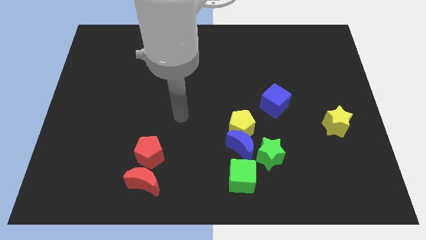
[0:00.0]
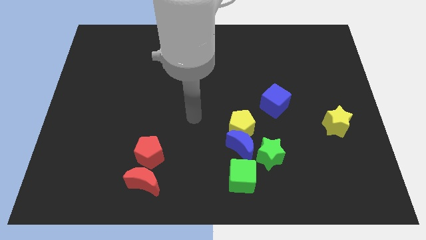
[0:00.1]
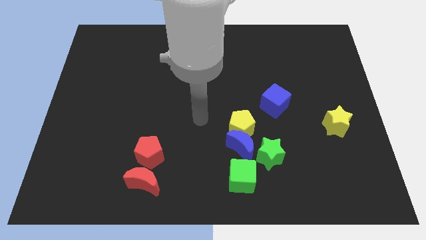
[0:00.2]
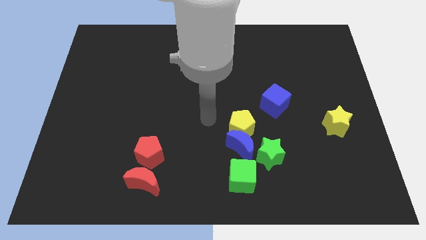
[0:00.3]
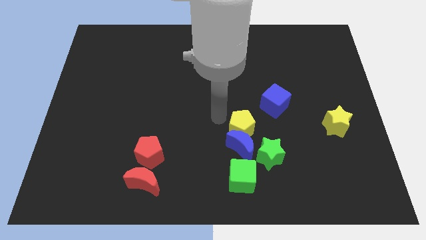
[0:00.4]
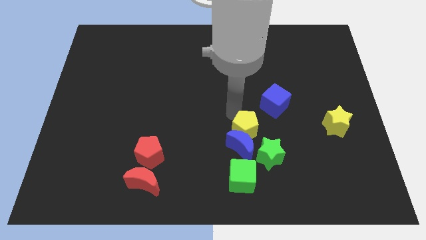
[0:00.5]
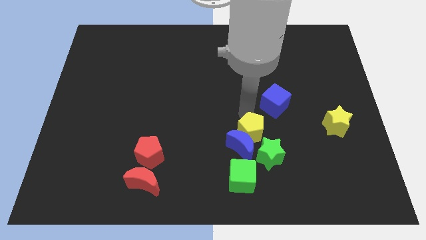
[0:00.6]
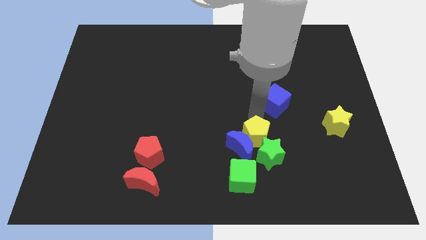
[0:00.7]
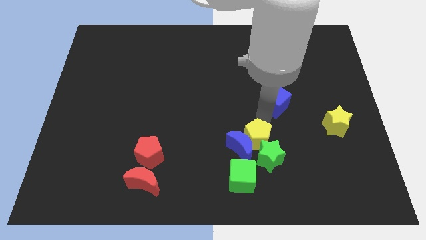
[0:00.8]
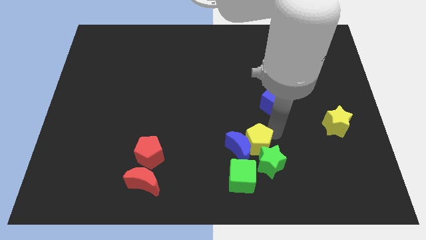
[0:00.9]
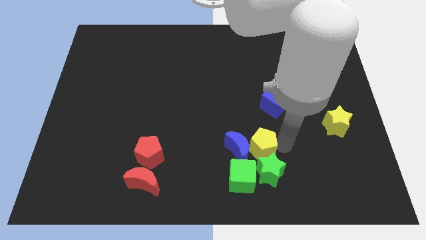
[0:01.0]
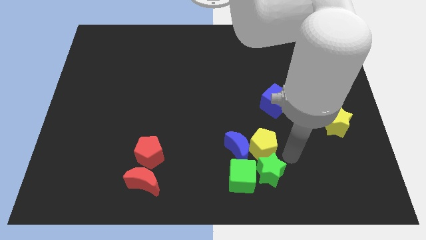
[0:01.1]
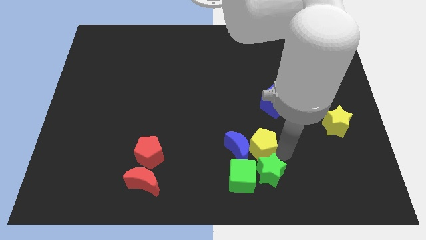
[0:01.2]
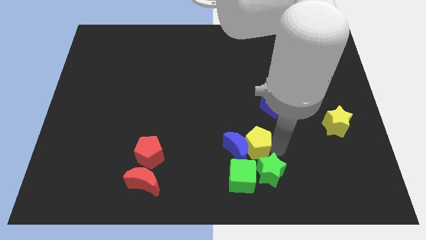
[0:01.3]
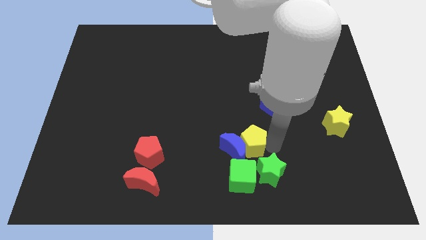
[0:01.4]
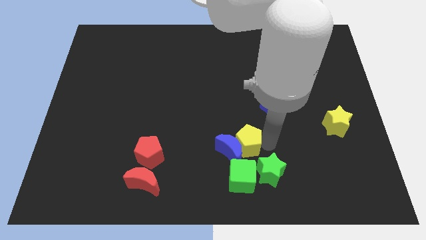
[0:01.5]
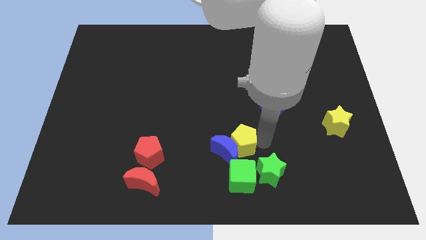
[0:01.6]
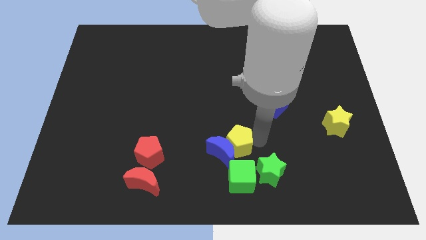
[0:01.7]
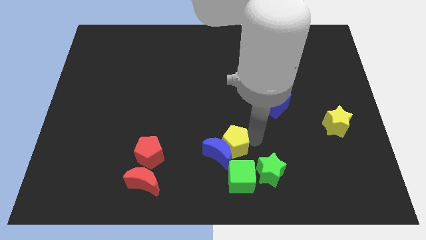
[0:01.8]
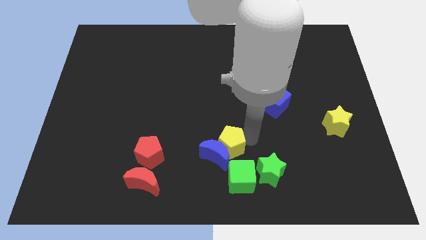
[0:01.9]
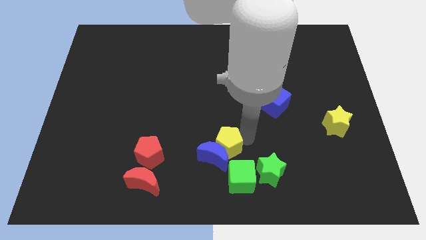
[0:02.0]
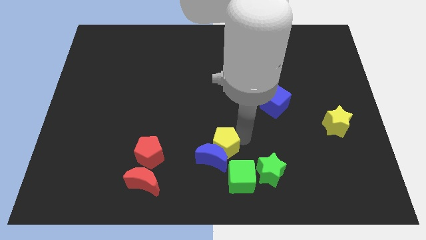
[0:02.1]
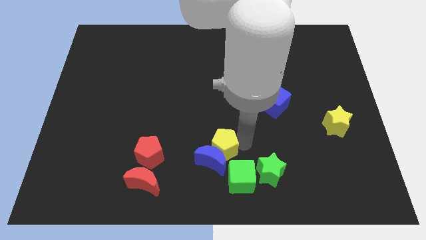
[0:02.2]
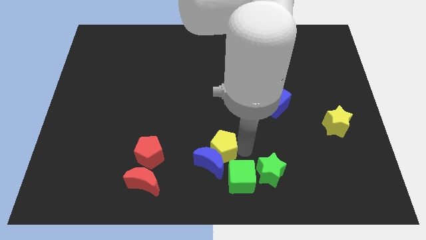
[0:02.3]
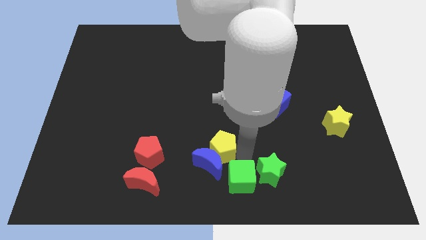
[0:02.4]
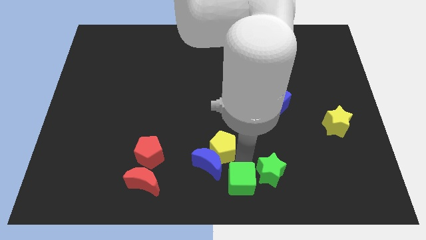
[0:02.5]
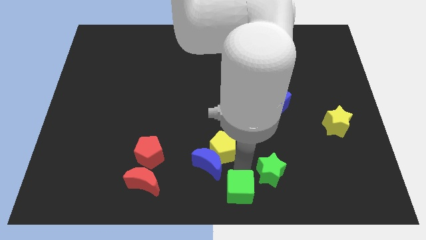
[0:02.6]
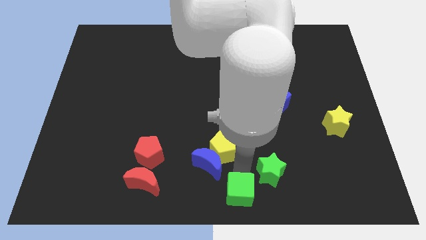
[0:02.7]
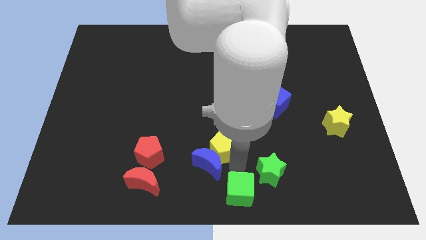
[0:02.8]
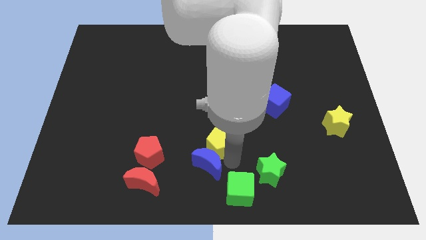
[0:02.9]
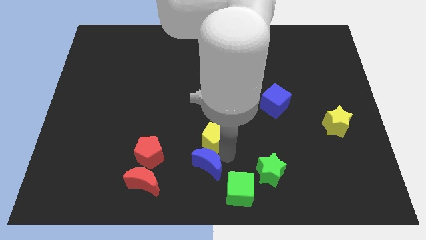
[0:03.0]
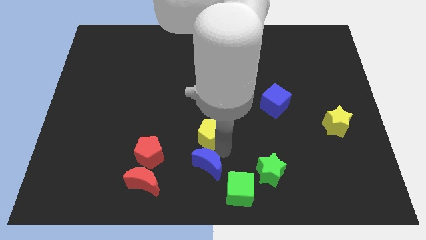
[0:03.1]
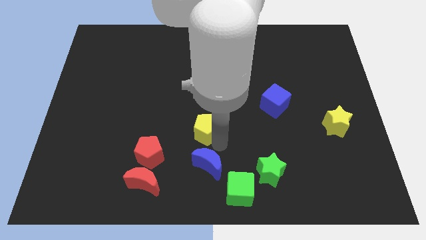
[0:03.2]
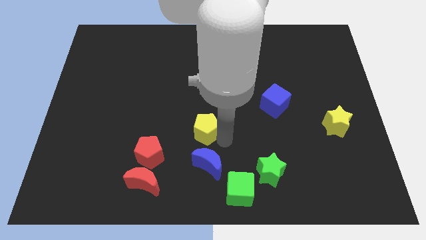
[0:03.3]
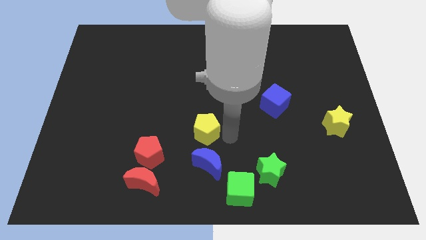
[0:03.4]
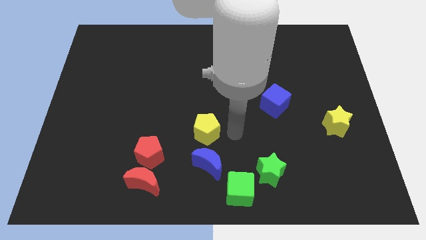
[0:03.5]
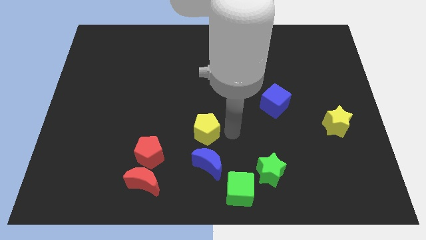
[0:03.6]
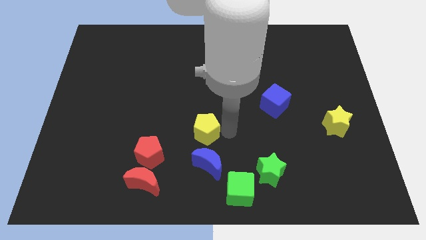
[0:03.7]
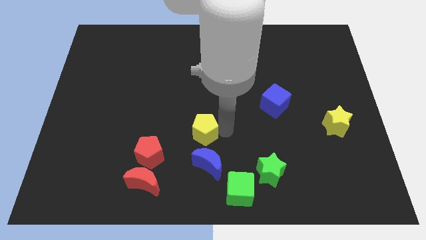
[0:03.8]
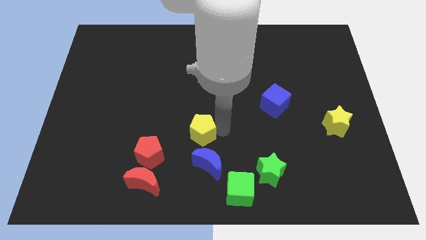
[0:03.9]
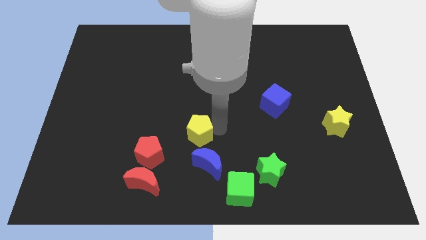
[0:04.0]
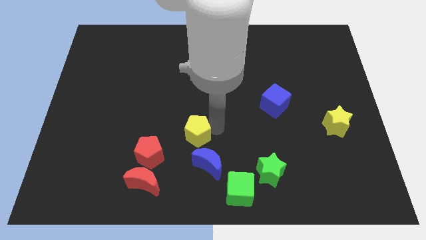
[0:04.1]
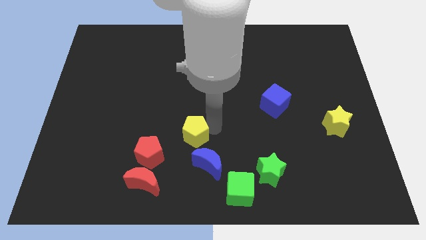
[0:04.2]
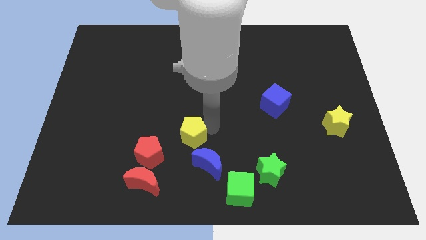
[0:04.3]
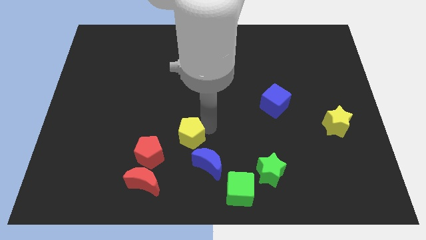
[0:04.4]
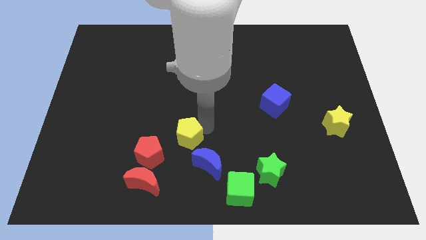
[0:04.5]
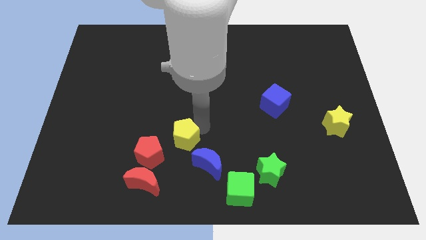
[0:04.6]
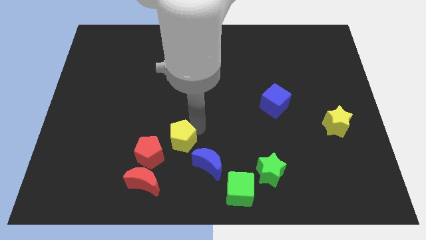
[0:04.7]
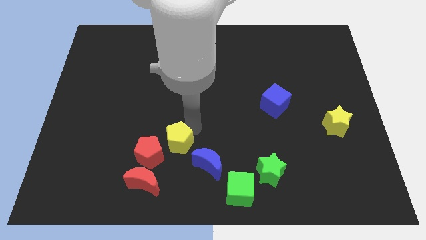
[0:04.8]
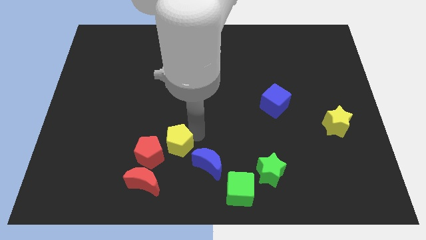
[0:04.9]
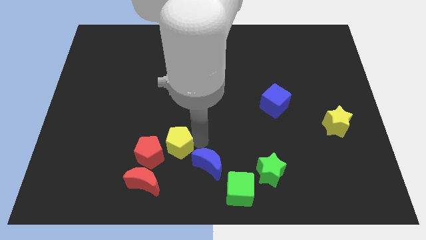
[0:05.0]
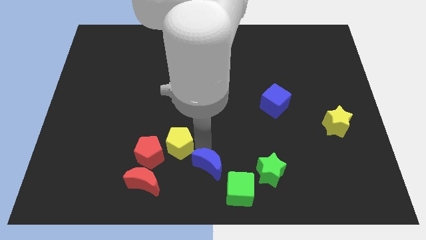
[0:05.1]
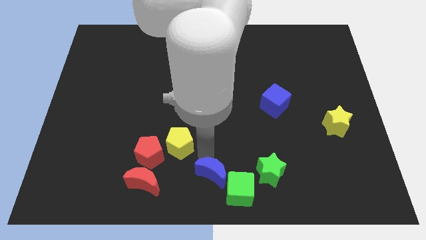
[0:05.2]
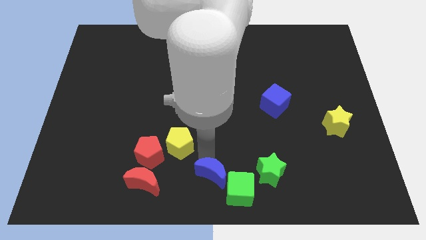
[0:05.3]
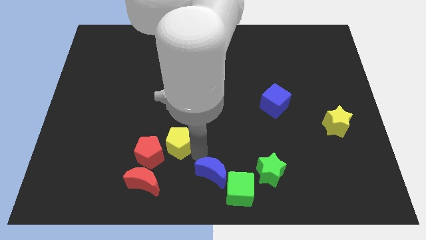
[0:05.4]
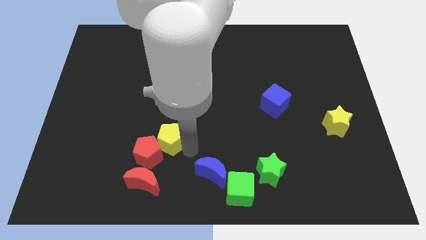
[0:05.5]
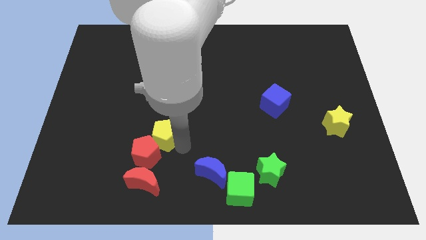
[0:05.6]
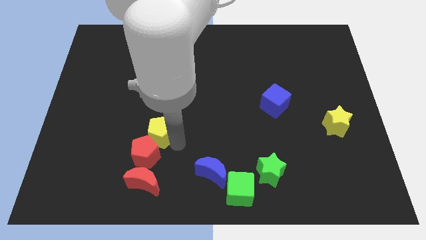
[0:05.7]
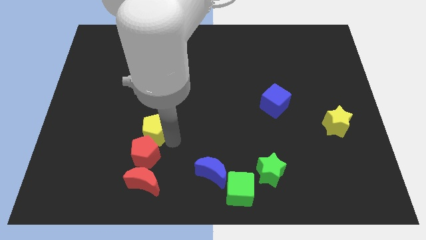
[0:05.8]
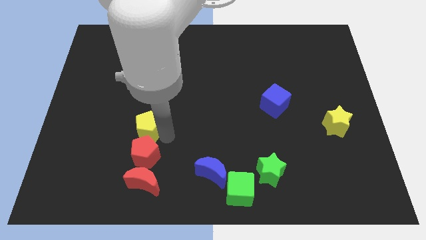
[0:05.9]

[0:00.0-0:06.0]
slide the yellow pentagon to the left

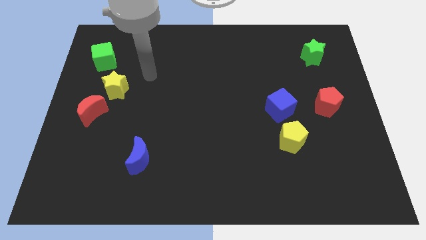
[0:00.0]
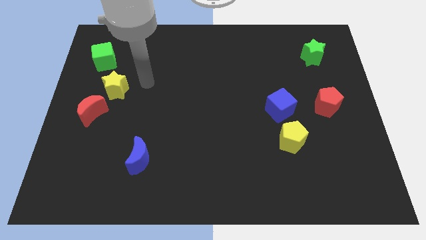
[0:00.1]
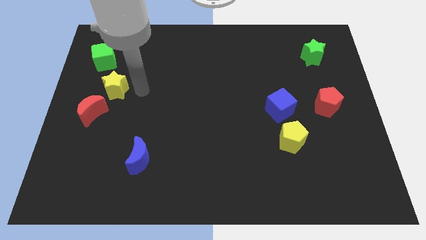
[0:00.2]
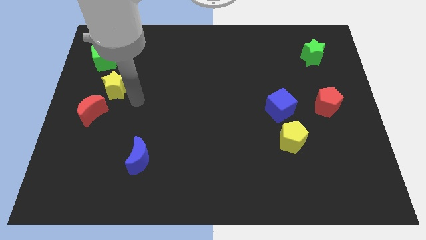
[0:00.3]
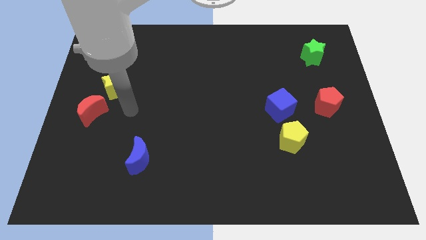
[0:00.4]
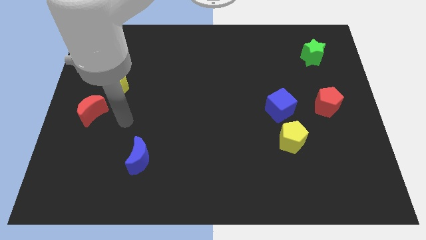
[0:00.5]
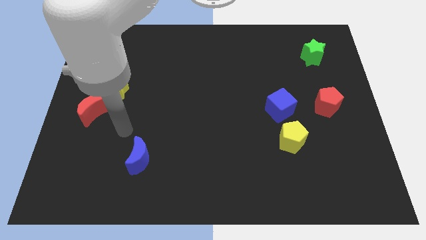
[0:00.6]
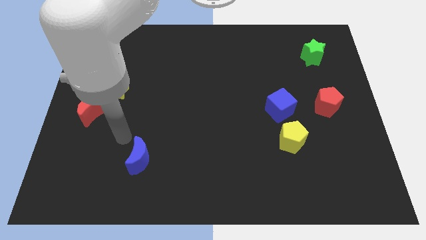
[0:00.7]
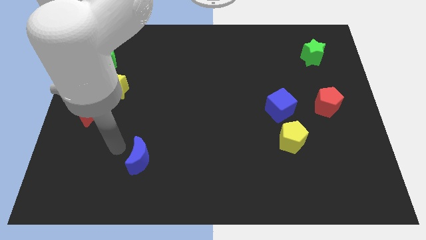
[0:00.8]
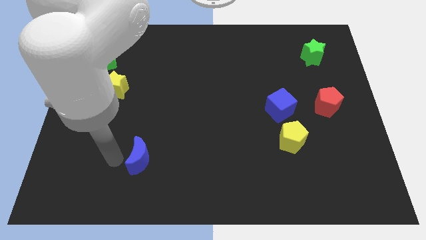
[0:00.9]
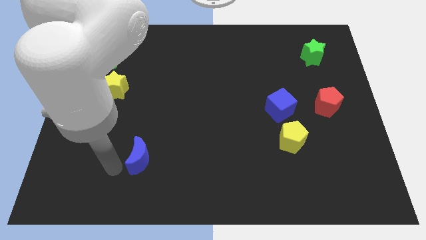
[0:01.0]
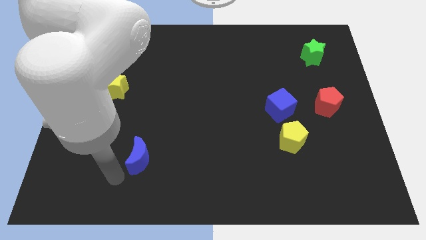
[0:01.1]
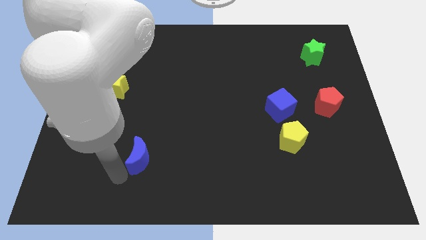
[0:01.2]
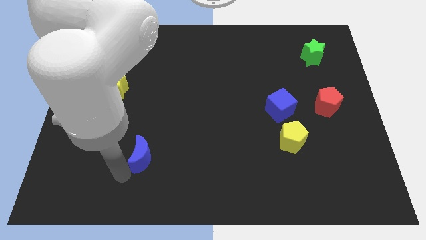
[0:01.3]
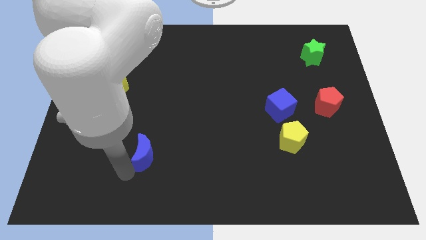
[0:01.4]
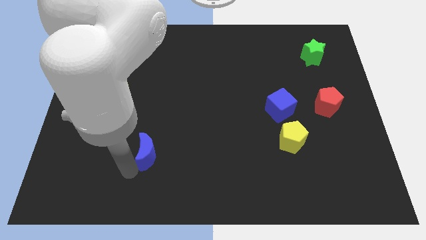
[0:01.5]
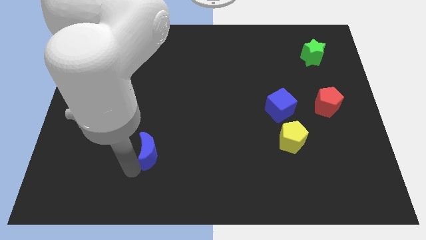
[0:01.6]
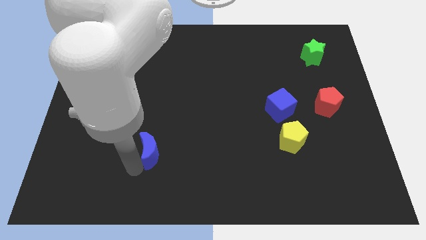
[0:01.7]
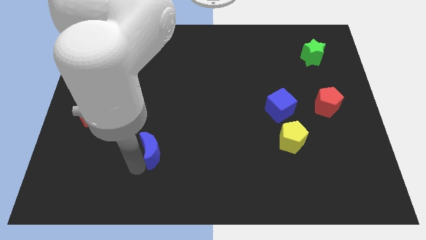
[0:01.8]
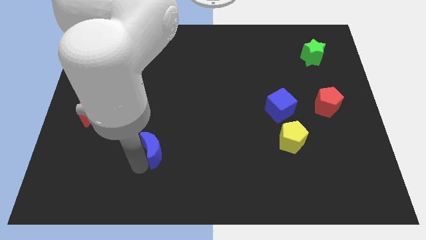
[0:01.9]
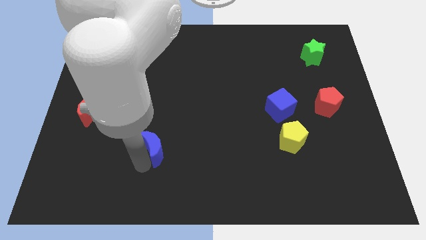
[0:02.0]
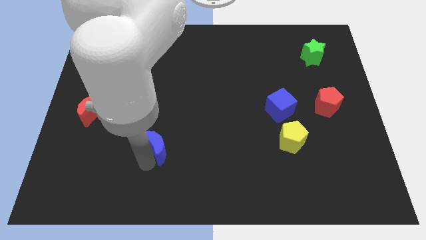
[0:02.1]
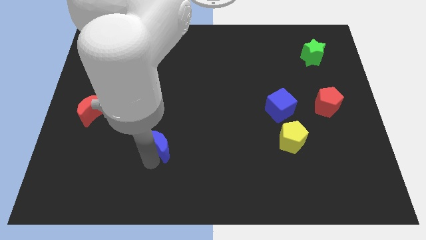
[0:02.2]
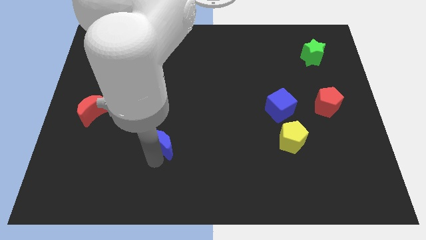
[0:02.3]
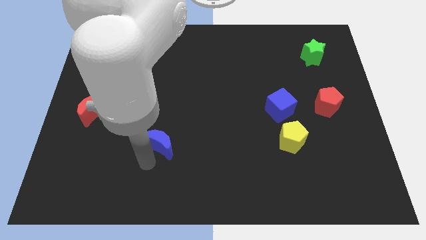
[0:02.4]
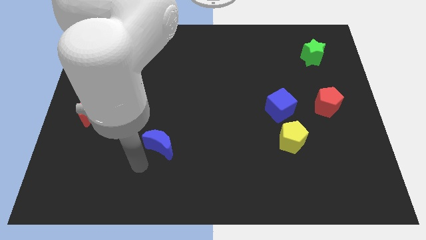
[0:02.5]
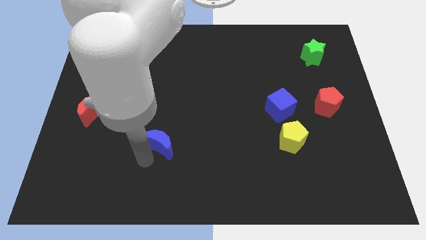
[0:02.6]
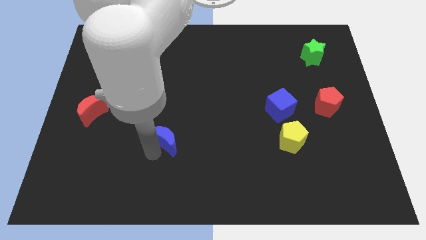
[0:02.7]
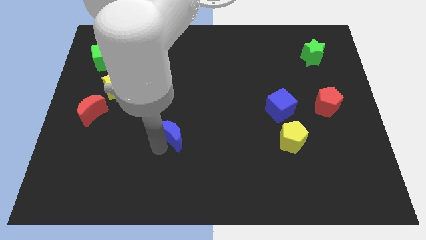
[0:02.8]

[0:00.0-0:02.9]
slightly slide the blue moon upwards and to the right diagonally
